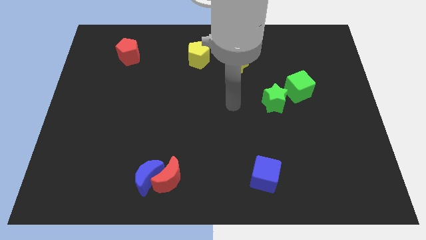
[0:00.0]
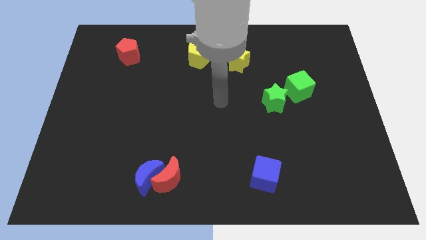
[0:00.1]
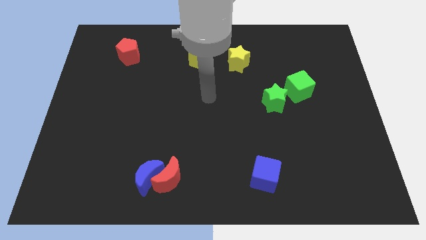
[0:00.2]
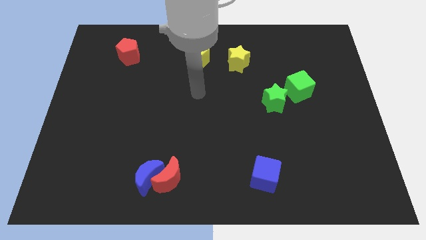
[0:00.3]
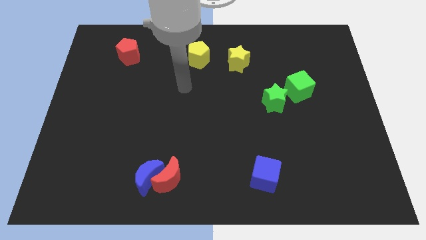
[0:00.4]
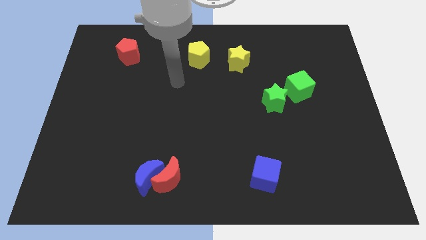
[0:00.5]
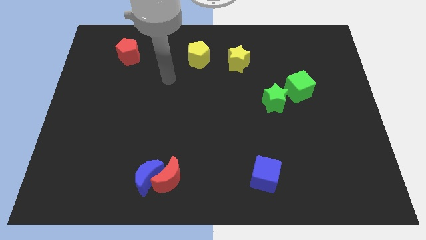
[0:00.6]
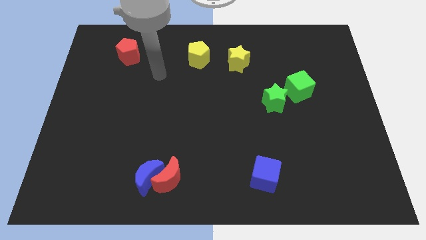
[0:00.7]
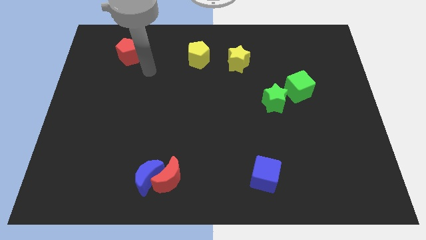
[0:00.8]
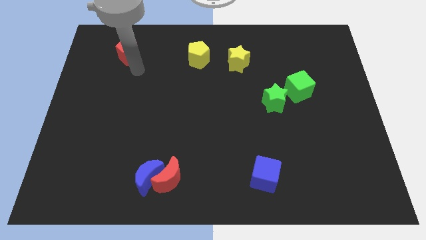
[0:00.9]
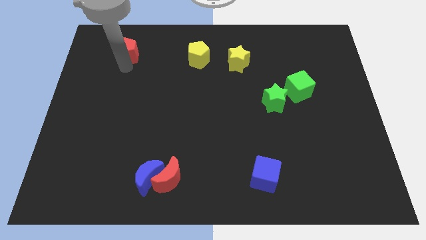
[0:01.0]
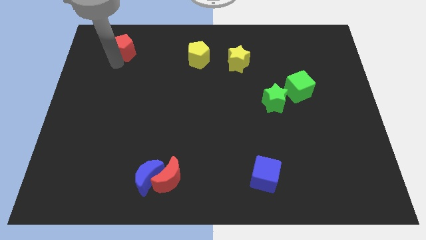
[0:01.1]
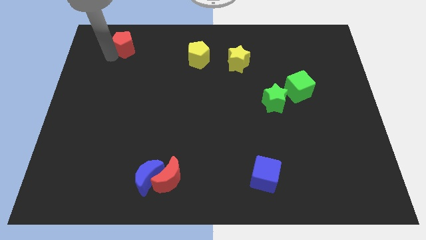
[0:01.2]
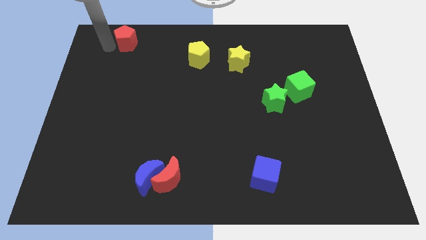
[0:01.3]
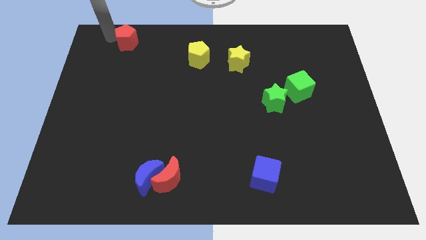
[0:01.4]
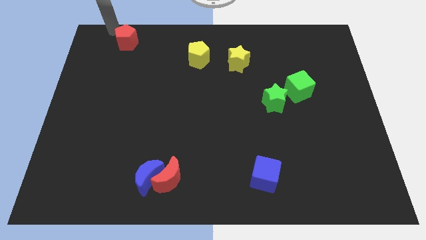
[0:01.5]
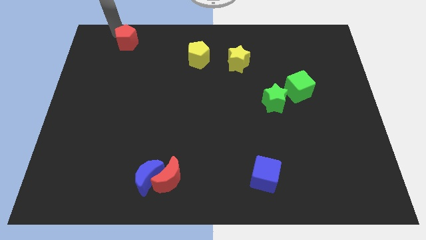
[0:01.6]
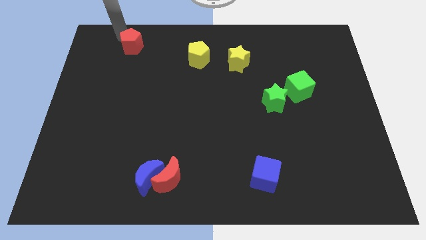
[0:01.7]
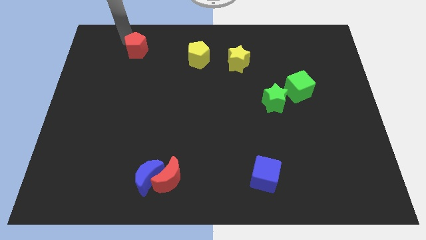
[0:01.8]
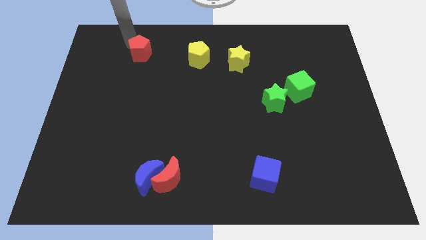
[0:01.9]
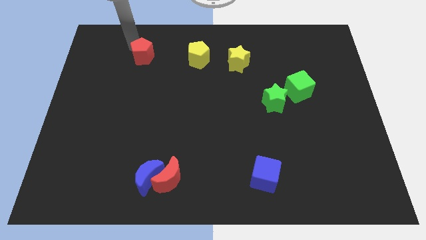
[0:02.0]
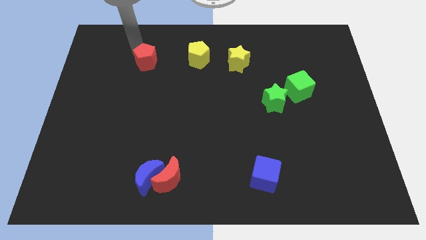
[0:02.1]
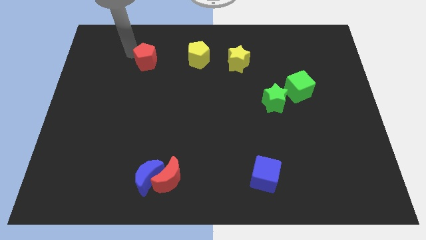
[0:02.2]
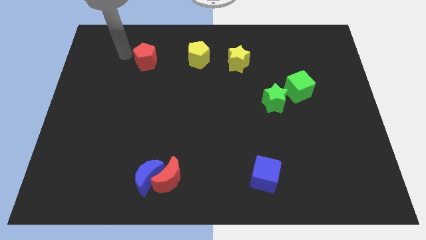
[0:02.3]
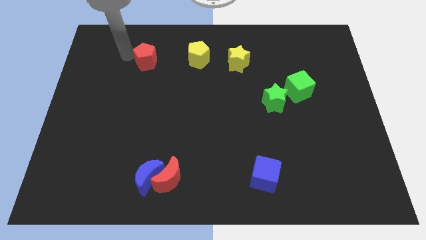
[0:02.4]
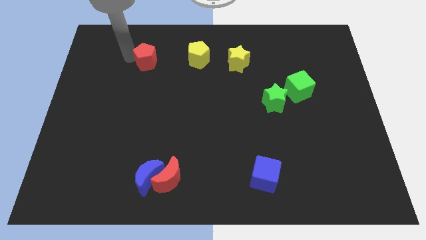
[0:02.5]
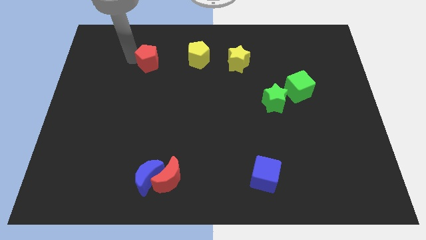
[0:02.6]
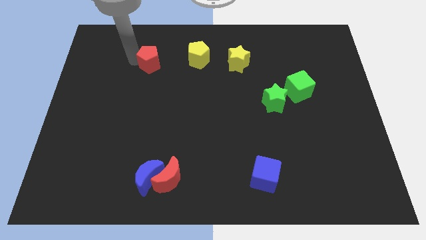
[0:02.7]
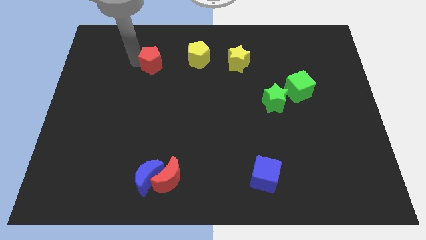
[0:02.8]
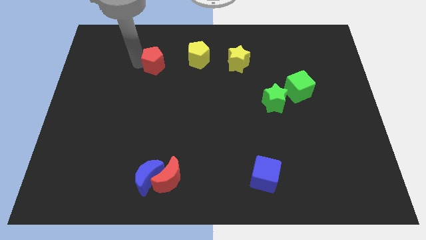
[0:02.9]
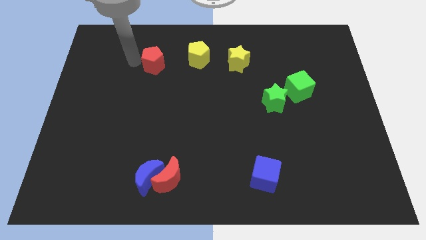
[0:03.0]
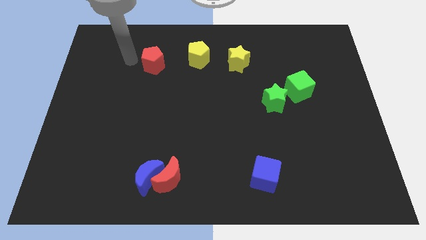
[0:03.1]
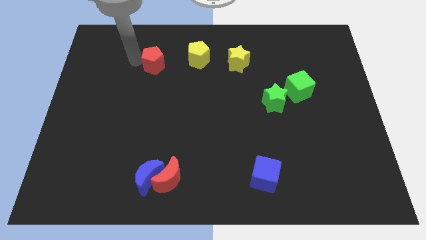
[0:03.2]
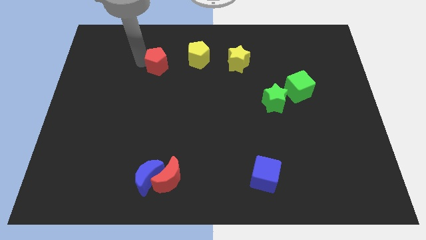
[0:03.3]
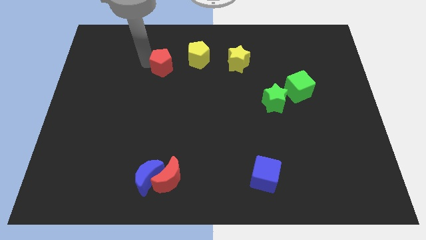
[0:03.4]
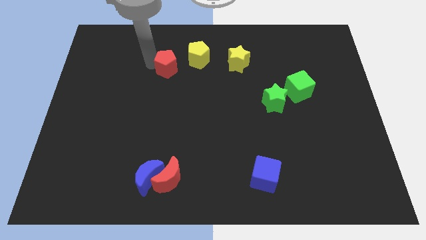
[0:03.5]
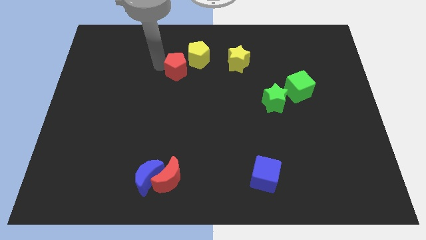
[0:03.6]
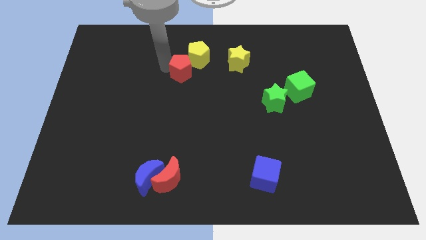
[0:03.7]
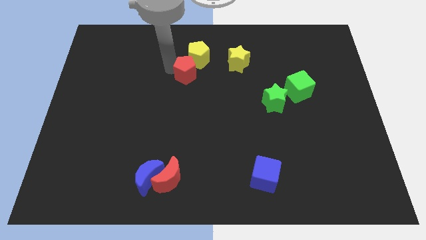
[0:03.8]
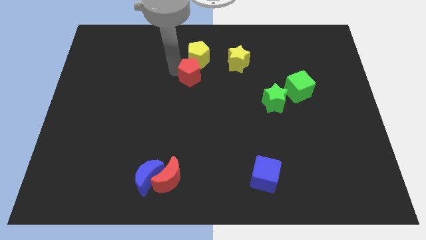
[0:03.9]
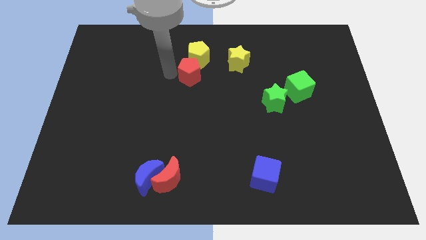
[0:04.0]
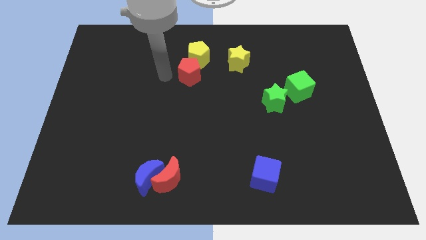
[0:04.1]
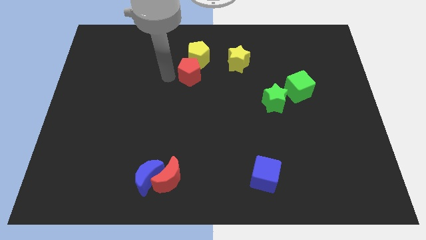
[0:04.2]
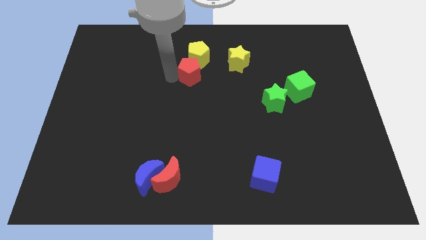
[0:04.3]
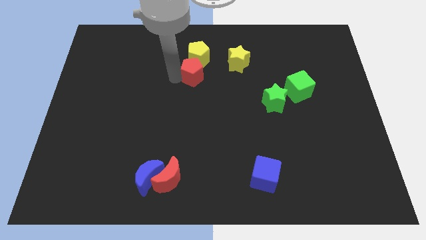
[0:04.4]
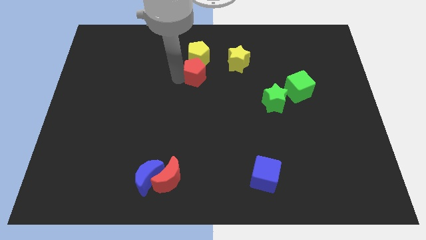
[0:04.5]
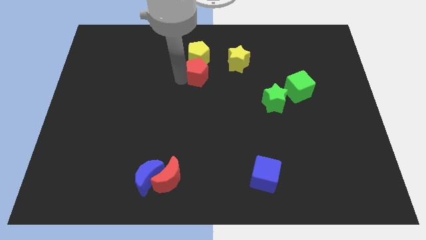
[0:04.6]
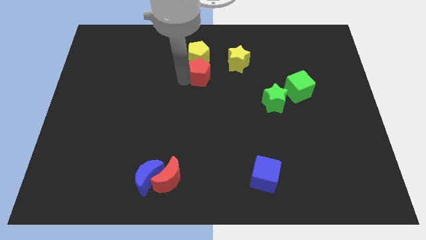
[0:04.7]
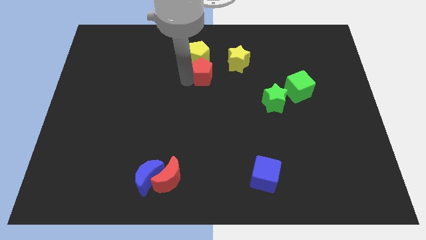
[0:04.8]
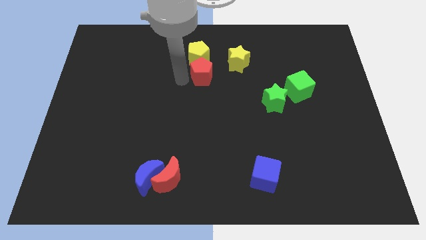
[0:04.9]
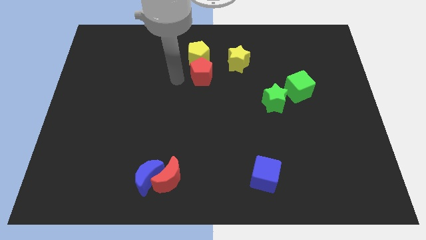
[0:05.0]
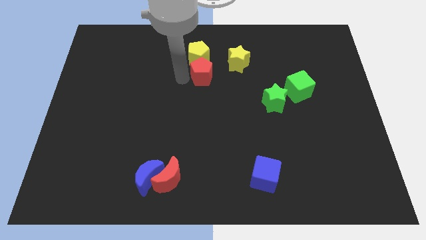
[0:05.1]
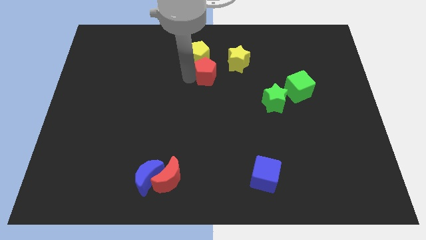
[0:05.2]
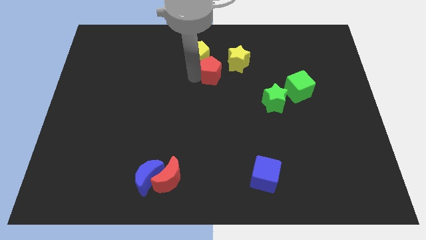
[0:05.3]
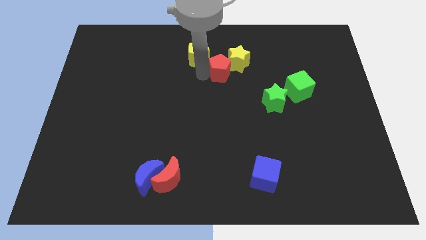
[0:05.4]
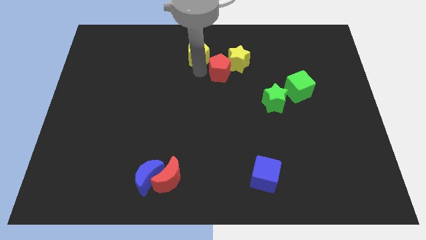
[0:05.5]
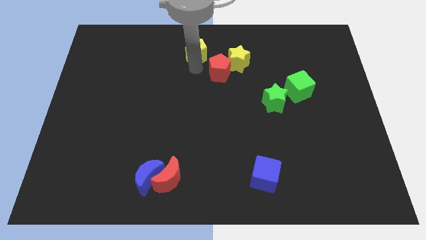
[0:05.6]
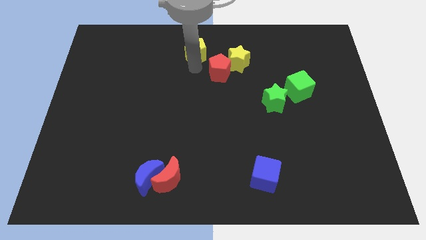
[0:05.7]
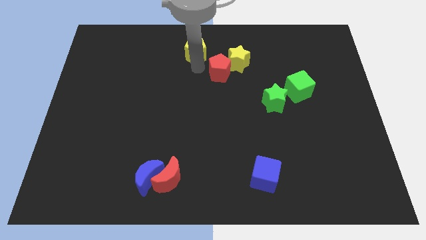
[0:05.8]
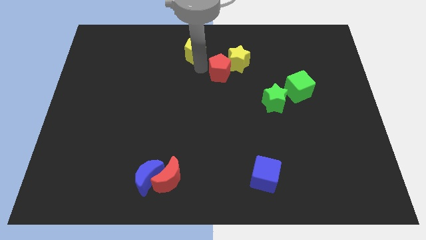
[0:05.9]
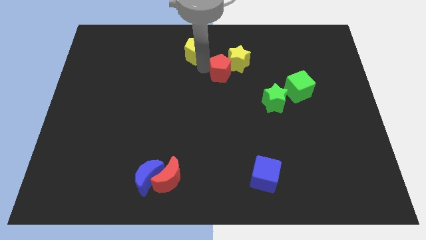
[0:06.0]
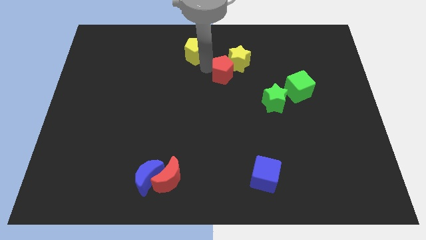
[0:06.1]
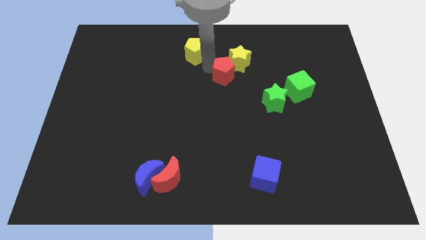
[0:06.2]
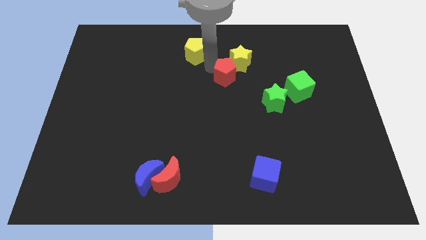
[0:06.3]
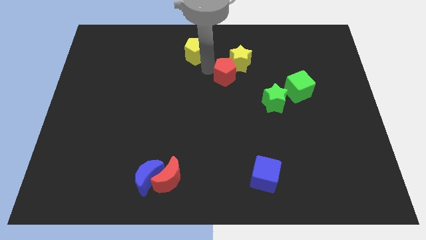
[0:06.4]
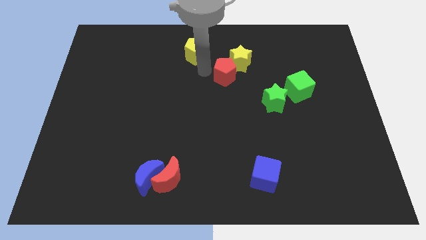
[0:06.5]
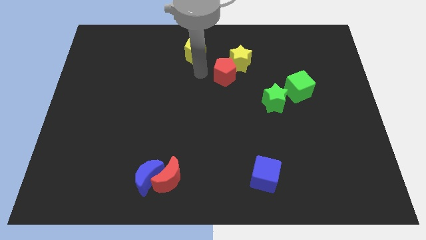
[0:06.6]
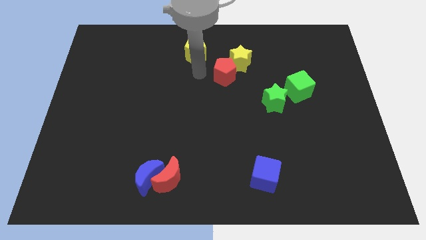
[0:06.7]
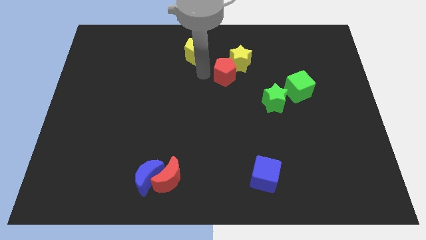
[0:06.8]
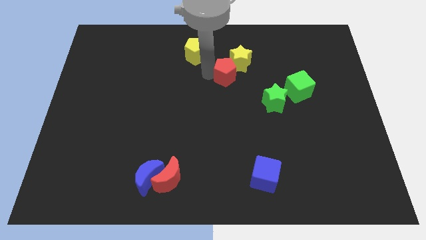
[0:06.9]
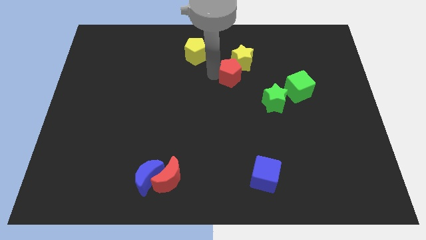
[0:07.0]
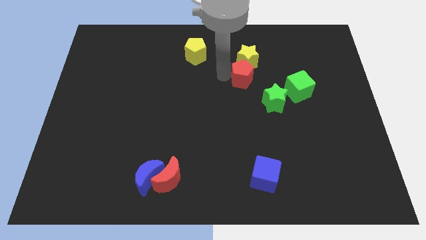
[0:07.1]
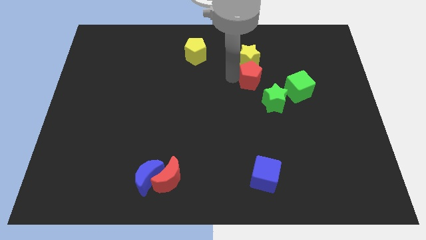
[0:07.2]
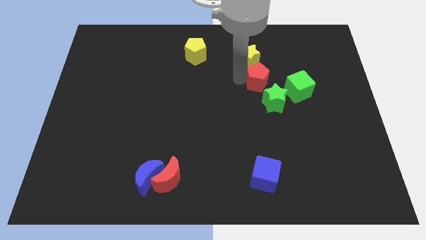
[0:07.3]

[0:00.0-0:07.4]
slide the red pentagon to the top left side of the green cube
